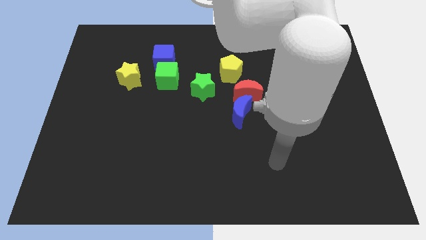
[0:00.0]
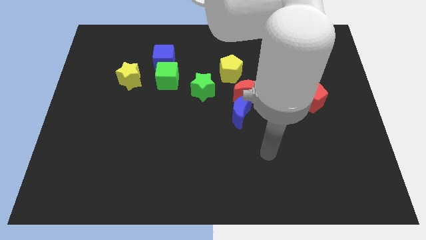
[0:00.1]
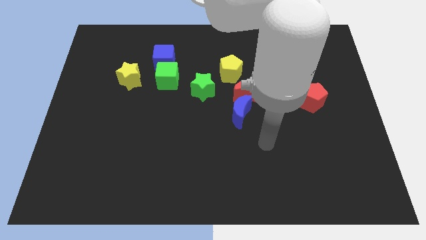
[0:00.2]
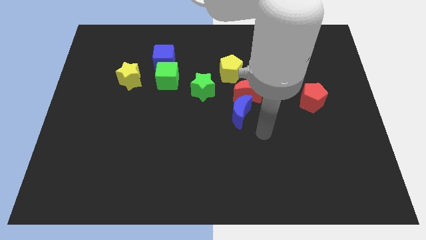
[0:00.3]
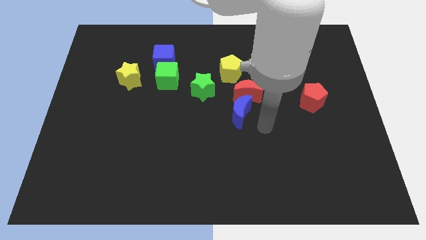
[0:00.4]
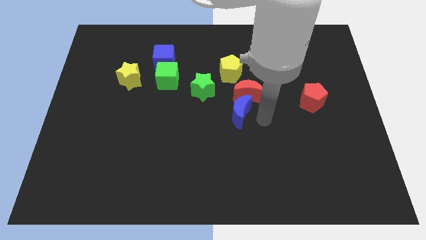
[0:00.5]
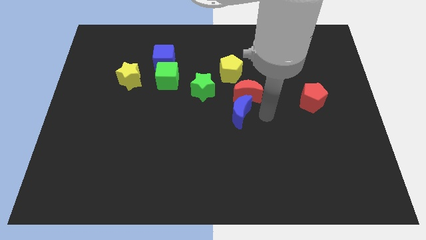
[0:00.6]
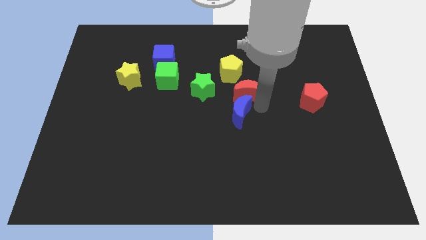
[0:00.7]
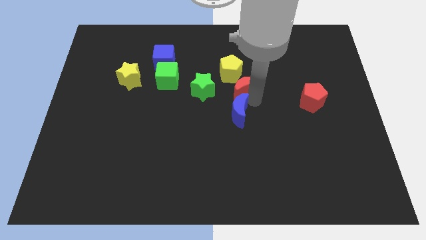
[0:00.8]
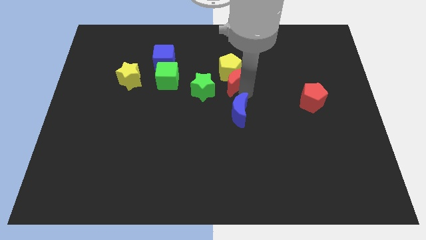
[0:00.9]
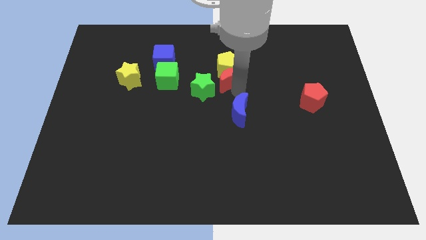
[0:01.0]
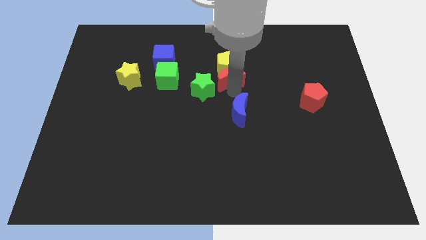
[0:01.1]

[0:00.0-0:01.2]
separate the blue moon from the red moon

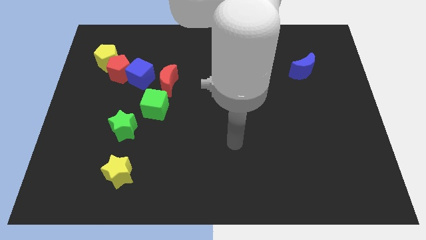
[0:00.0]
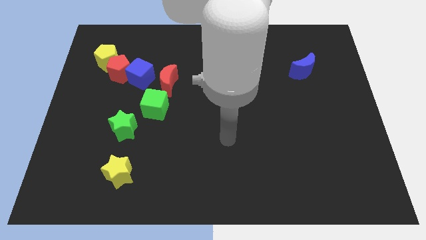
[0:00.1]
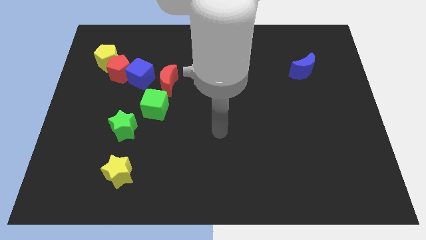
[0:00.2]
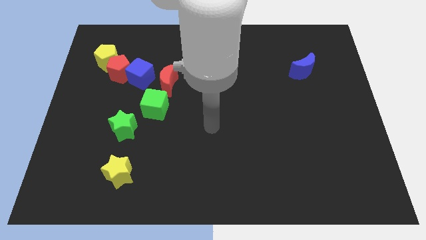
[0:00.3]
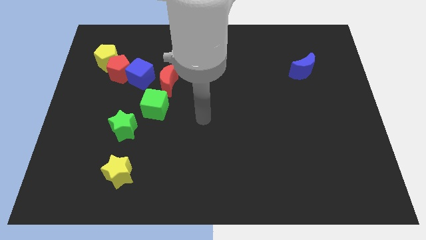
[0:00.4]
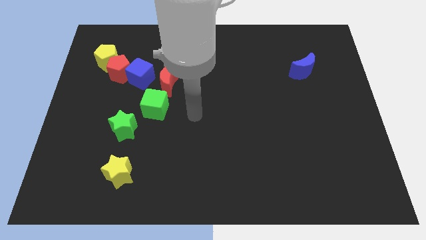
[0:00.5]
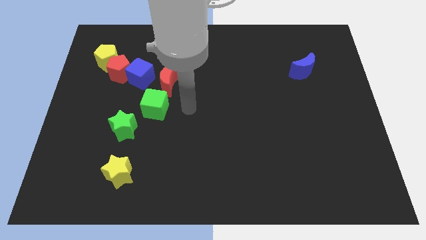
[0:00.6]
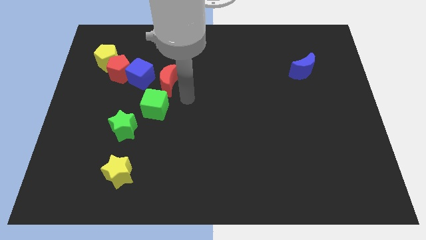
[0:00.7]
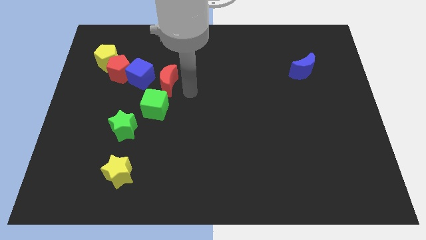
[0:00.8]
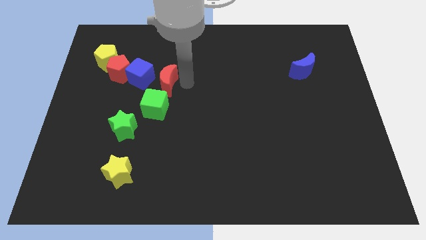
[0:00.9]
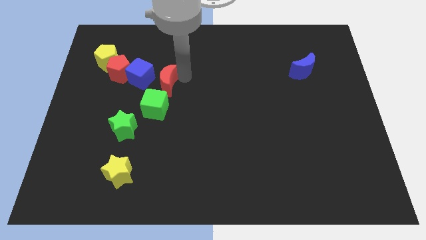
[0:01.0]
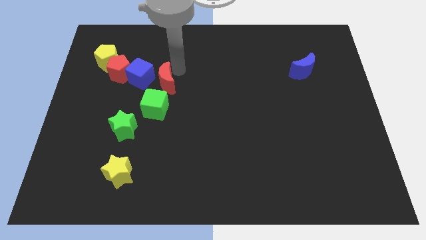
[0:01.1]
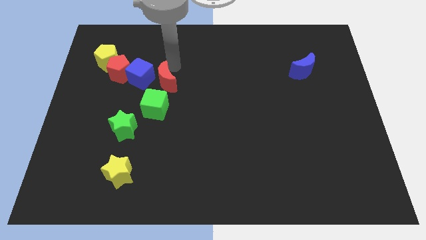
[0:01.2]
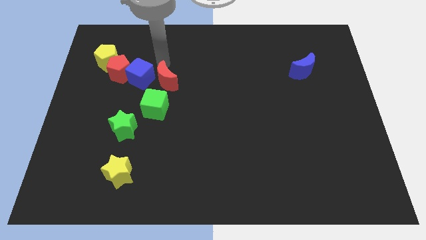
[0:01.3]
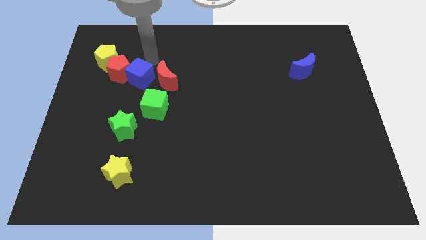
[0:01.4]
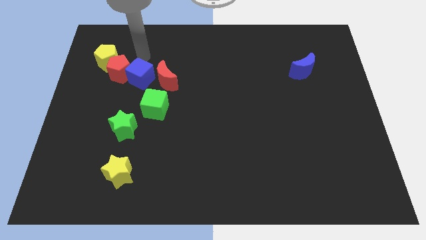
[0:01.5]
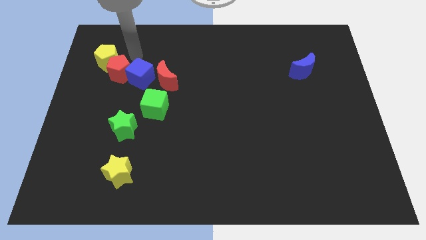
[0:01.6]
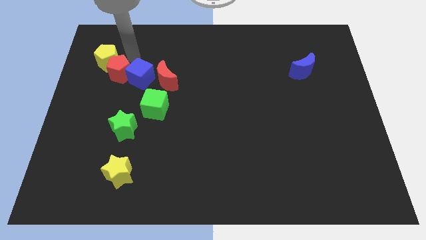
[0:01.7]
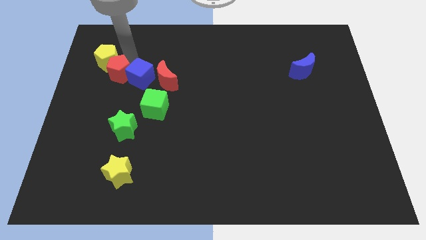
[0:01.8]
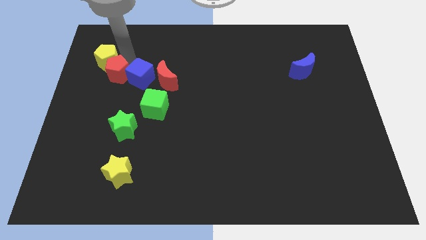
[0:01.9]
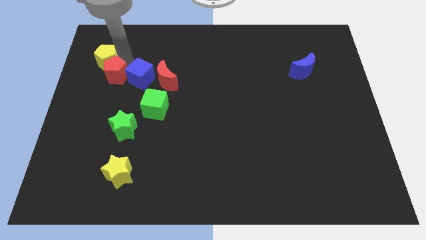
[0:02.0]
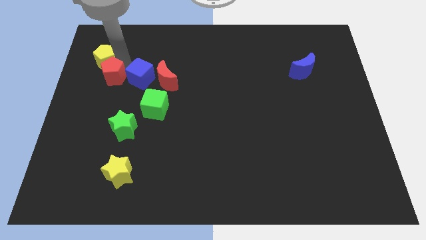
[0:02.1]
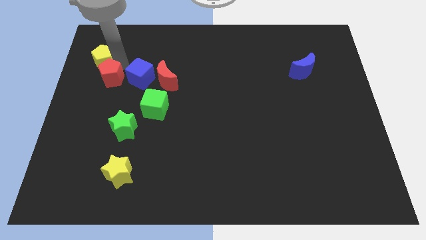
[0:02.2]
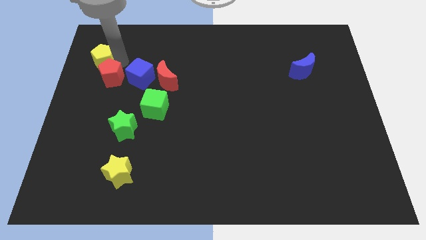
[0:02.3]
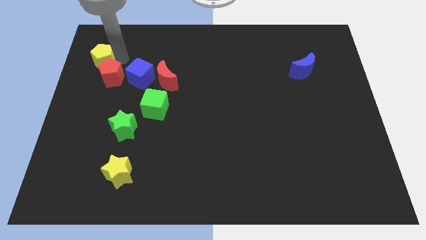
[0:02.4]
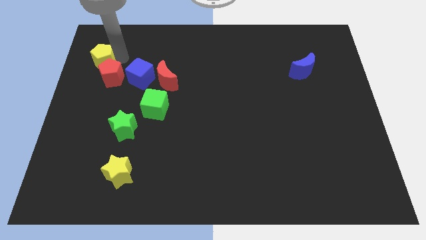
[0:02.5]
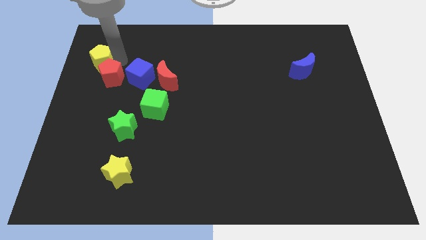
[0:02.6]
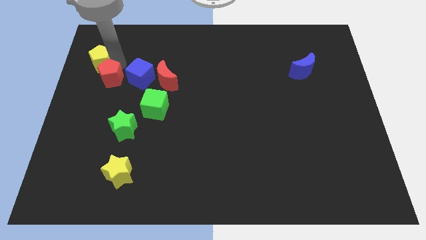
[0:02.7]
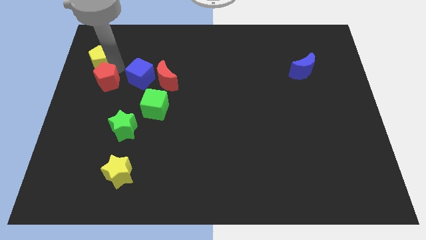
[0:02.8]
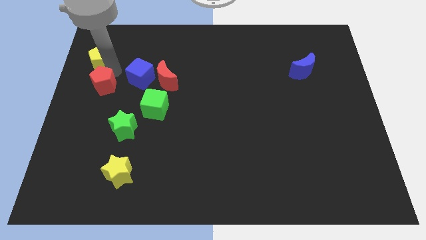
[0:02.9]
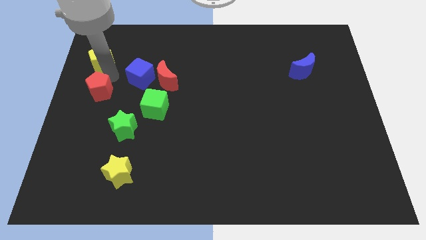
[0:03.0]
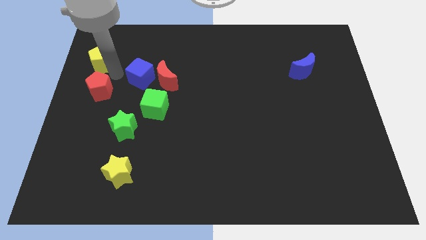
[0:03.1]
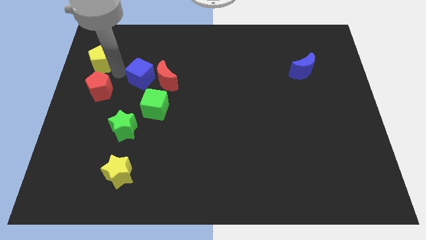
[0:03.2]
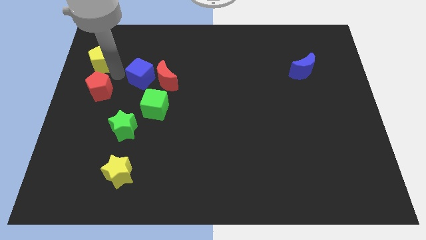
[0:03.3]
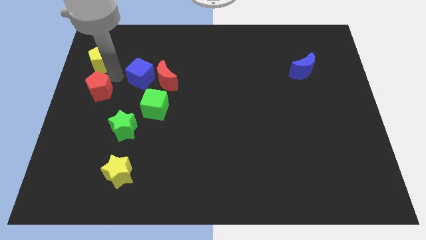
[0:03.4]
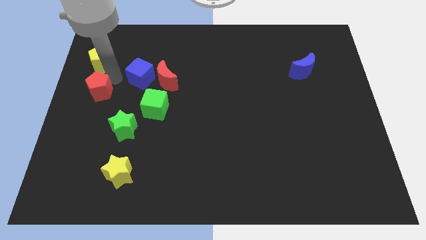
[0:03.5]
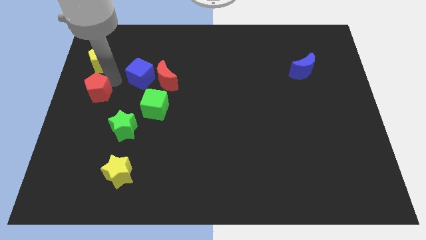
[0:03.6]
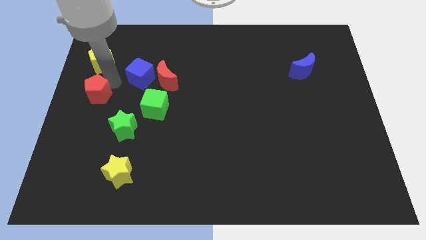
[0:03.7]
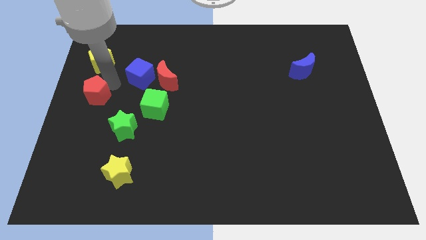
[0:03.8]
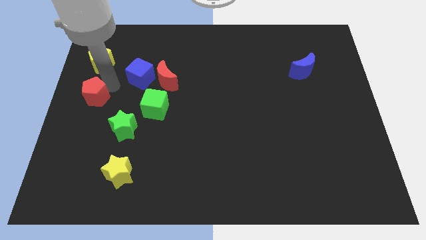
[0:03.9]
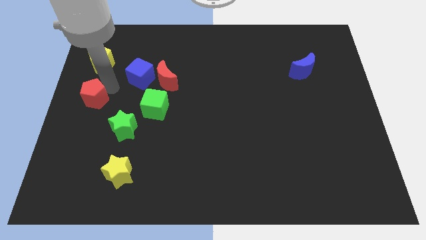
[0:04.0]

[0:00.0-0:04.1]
pull the red pentagon apart from the blue cube and yellow pentagon

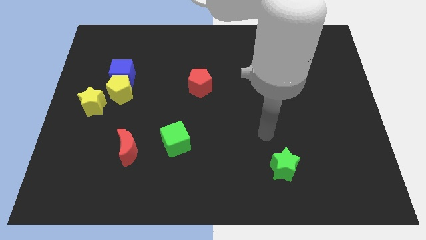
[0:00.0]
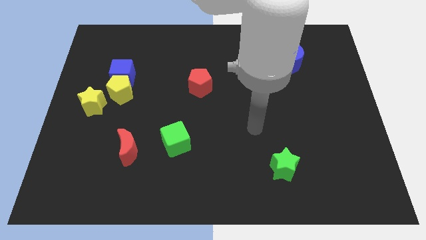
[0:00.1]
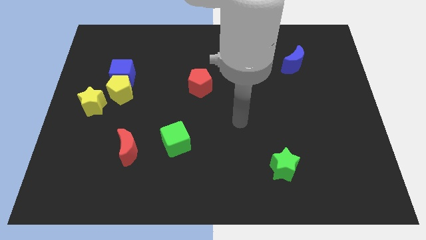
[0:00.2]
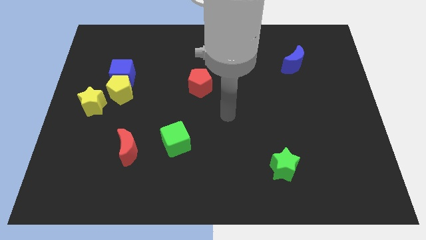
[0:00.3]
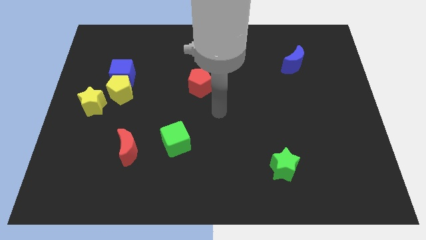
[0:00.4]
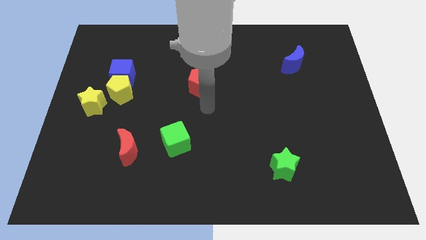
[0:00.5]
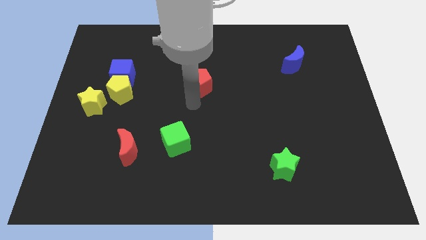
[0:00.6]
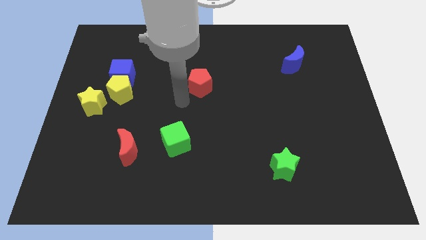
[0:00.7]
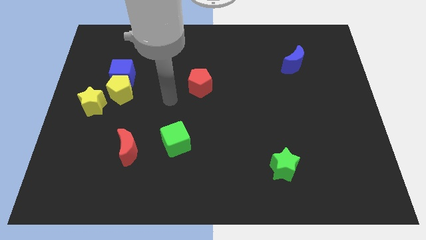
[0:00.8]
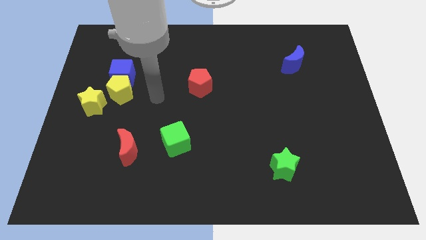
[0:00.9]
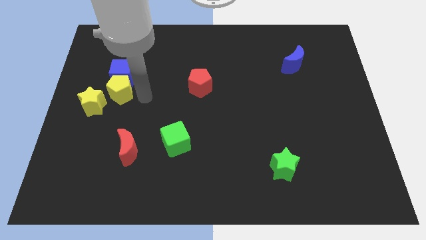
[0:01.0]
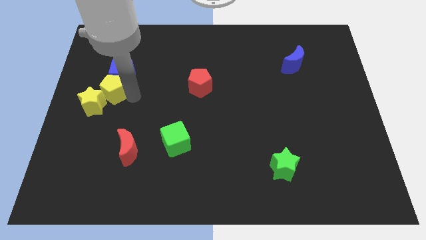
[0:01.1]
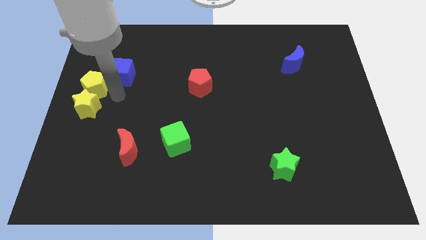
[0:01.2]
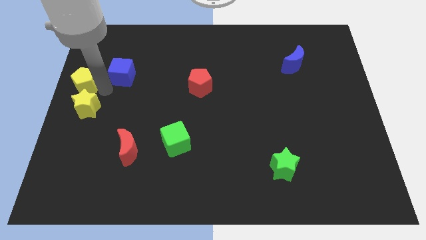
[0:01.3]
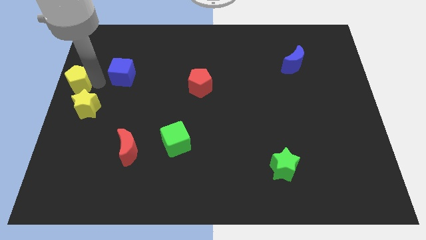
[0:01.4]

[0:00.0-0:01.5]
separate the blue cube from the yellow pentagon

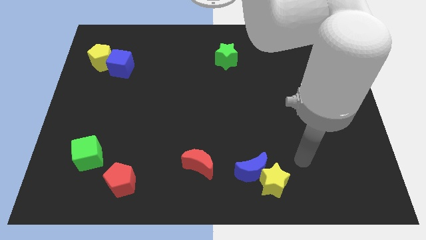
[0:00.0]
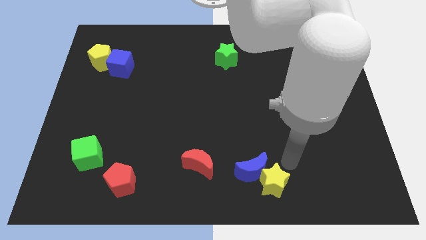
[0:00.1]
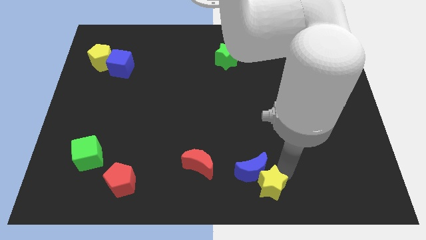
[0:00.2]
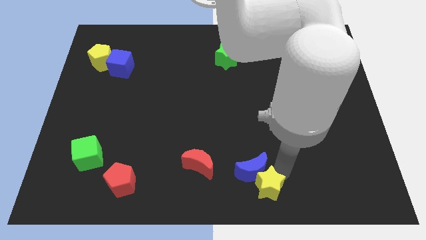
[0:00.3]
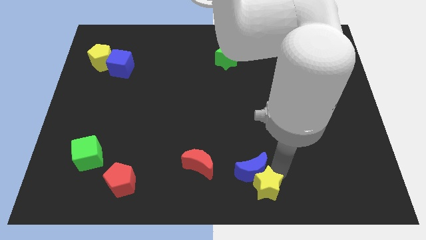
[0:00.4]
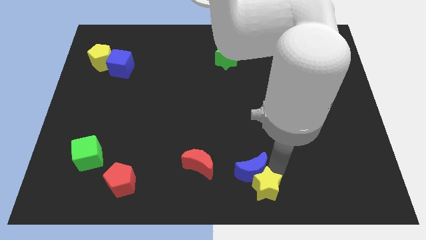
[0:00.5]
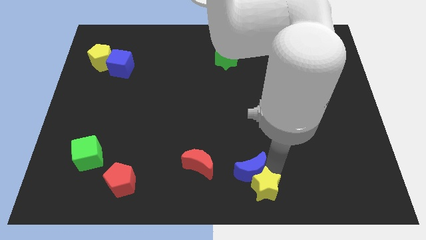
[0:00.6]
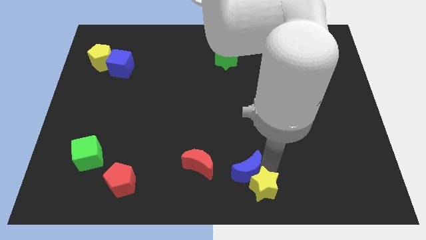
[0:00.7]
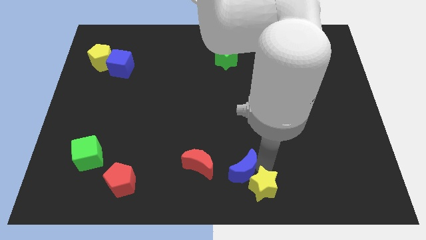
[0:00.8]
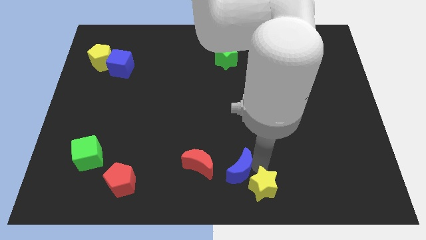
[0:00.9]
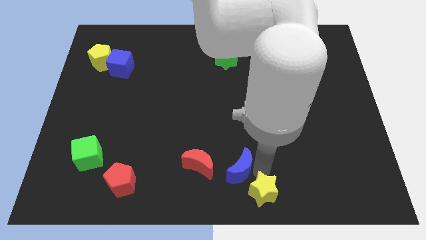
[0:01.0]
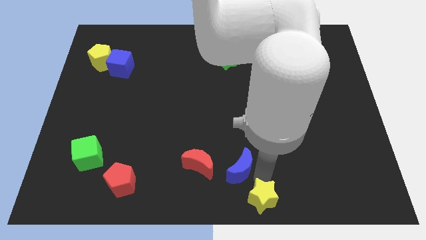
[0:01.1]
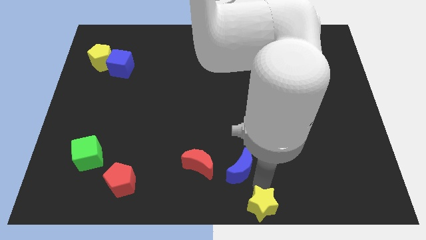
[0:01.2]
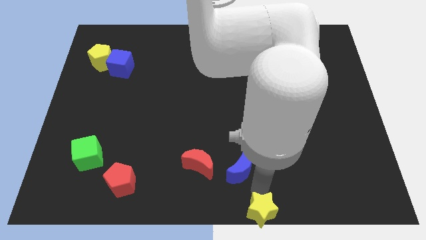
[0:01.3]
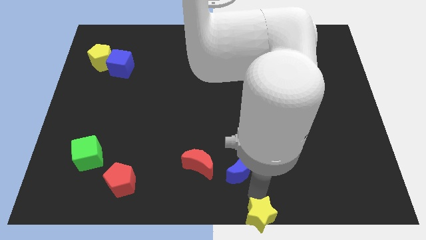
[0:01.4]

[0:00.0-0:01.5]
move the blue moon away from the yellow star

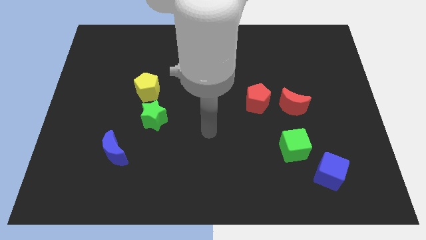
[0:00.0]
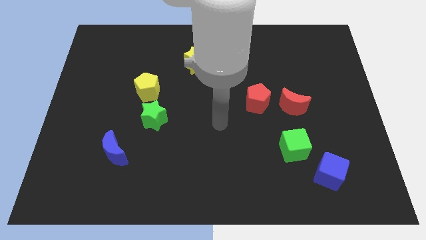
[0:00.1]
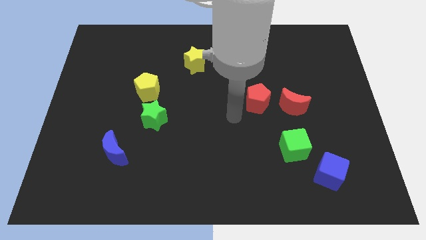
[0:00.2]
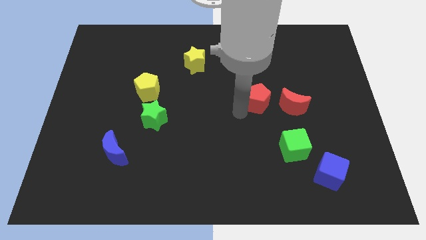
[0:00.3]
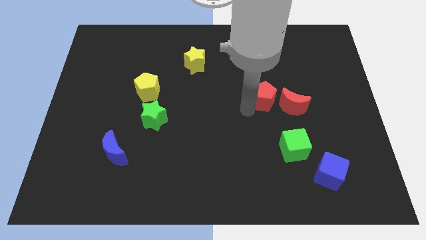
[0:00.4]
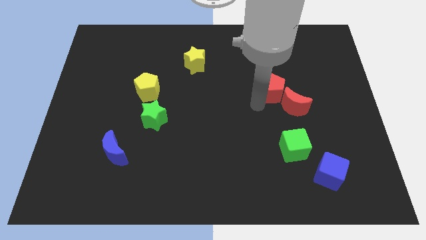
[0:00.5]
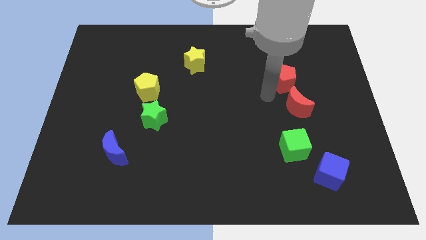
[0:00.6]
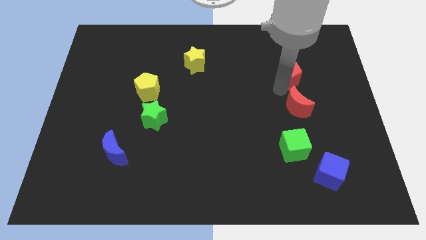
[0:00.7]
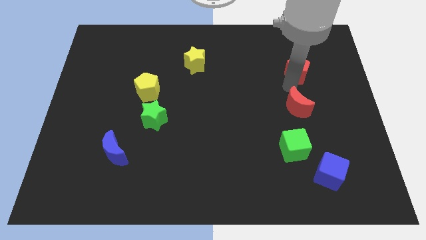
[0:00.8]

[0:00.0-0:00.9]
separate the red moon from the red pentagon
